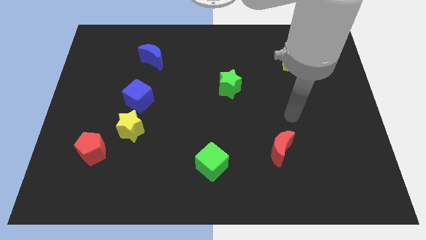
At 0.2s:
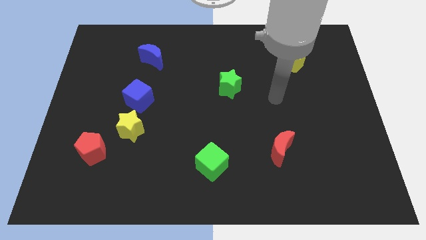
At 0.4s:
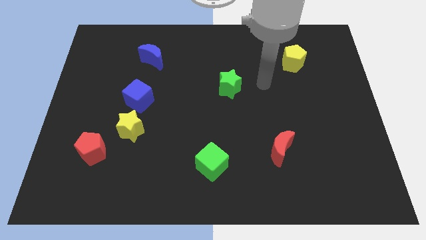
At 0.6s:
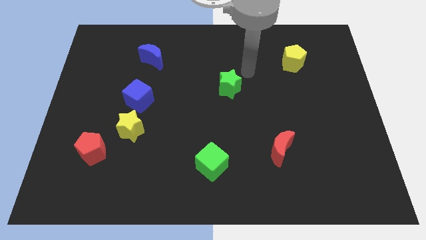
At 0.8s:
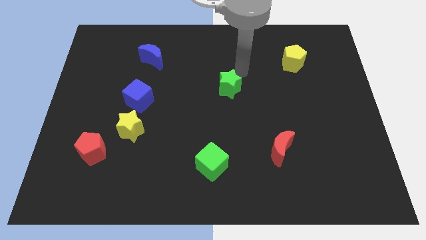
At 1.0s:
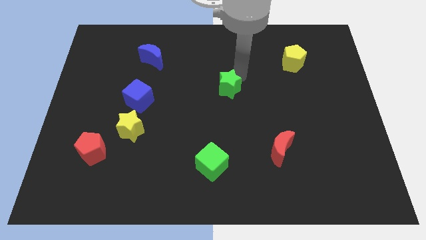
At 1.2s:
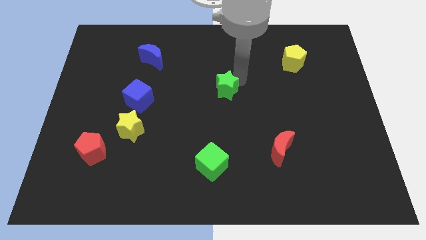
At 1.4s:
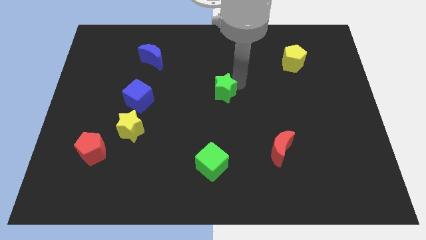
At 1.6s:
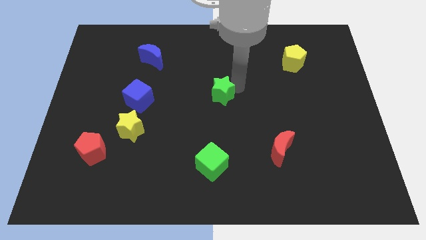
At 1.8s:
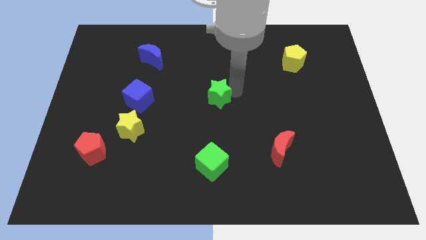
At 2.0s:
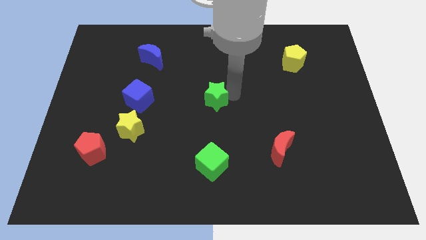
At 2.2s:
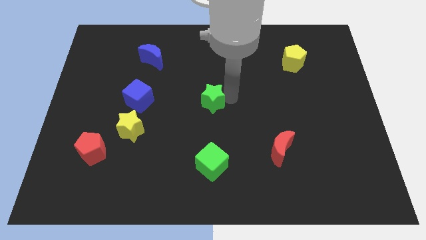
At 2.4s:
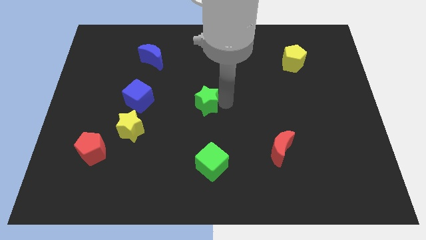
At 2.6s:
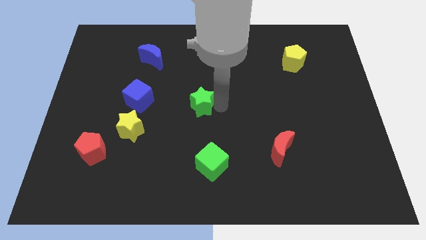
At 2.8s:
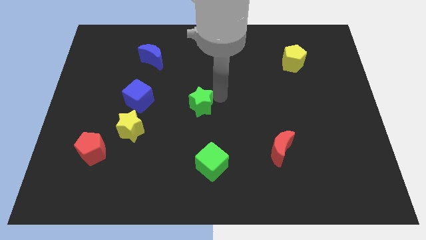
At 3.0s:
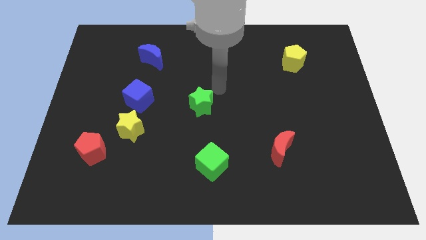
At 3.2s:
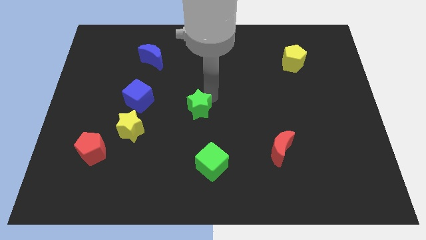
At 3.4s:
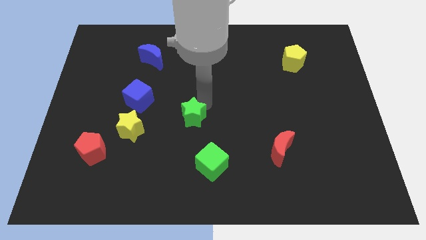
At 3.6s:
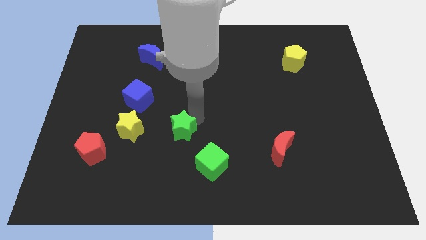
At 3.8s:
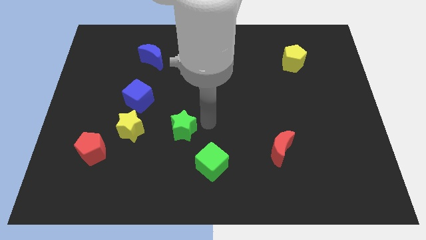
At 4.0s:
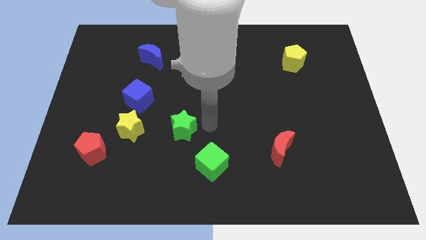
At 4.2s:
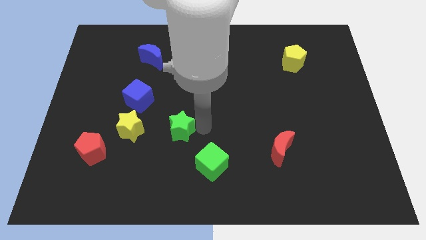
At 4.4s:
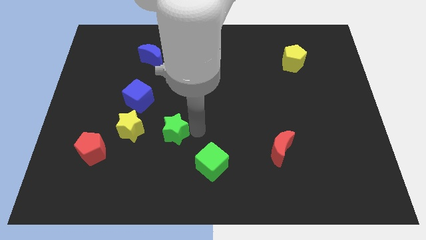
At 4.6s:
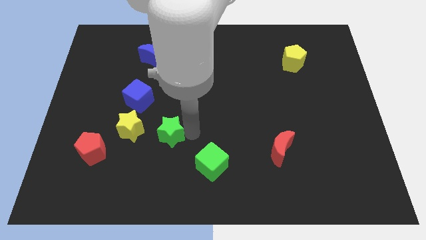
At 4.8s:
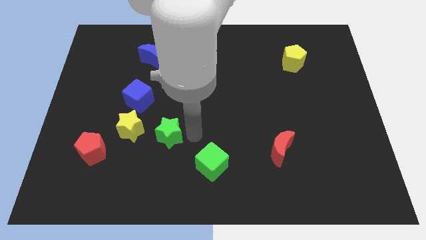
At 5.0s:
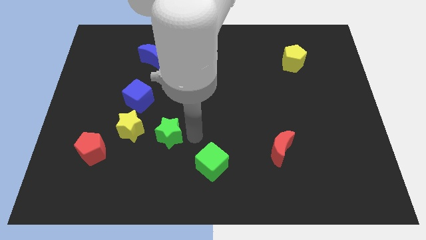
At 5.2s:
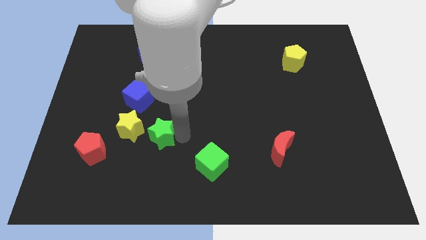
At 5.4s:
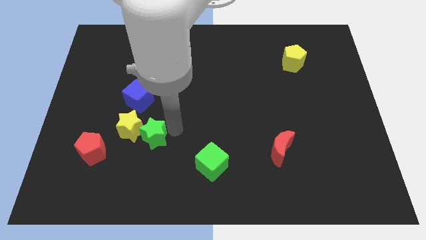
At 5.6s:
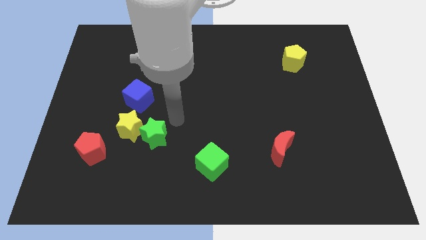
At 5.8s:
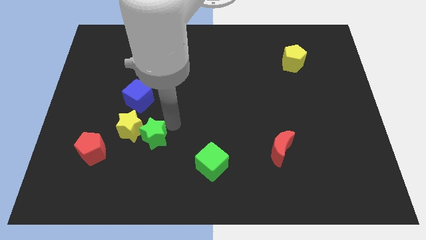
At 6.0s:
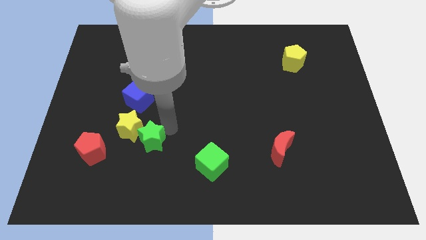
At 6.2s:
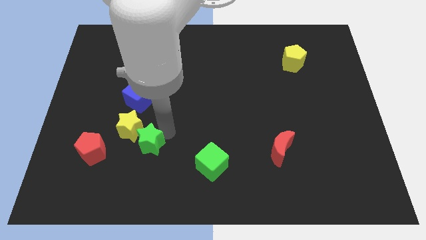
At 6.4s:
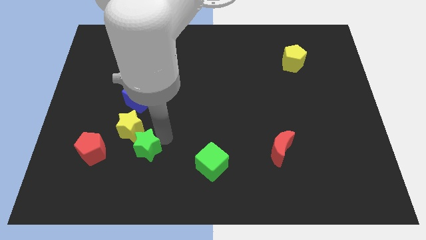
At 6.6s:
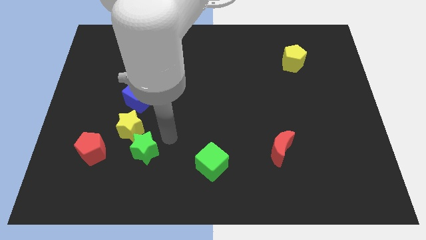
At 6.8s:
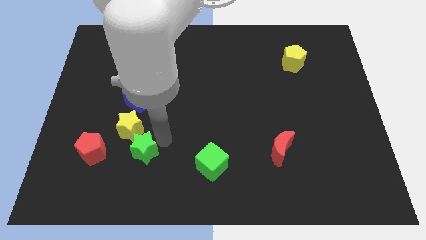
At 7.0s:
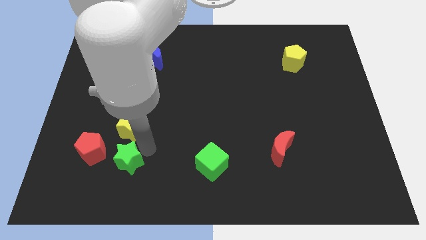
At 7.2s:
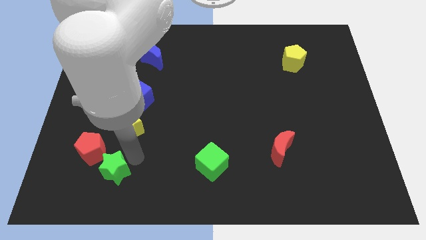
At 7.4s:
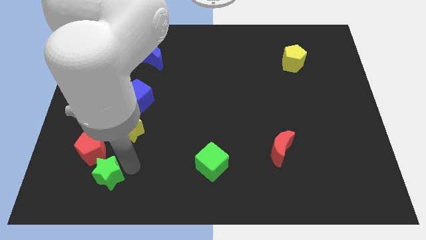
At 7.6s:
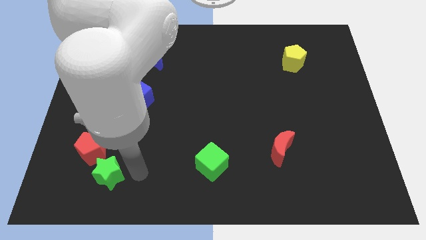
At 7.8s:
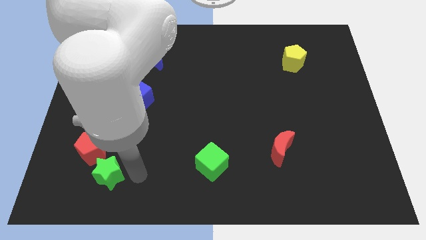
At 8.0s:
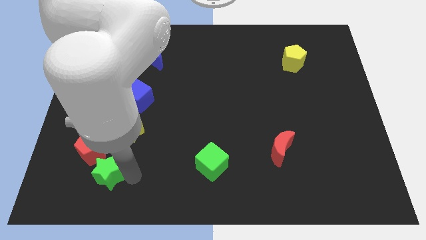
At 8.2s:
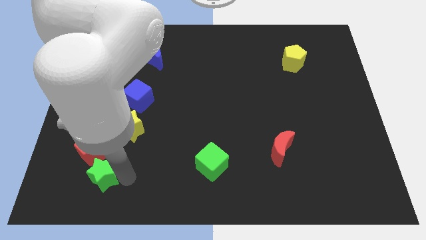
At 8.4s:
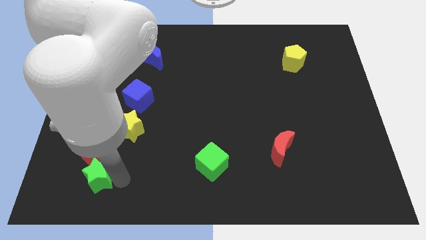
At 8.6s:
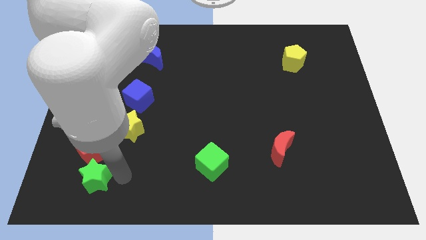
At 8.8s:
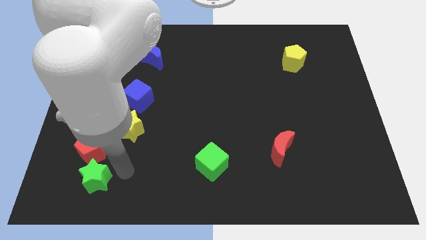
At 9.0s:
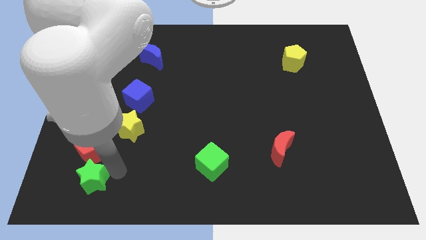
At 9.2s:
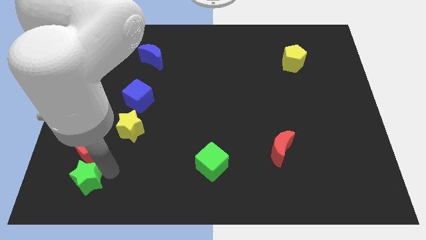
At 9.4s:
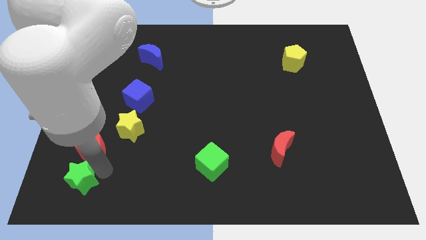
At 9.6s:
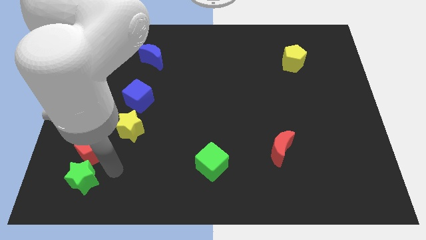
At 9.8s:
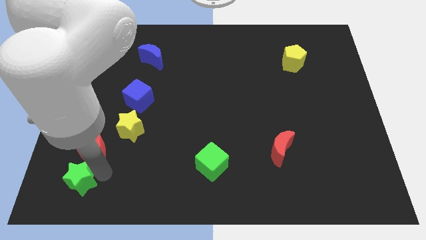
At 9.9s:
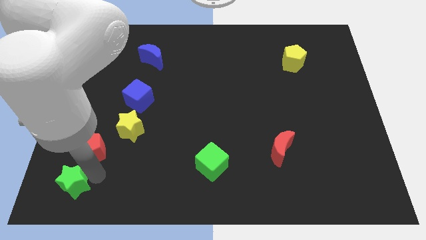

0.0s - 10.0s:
move the green star to the bottom left of the board

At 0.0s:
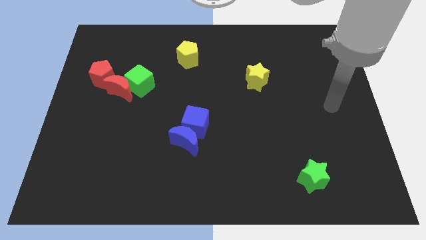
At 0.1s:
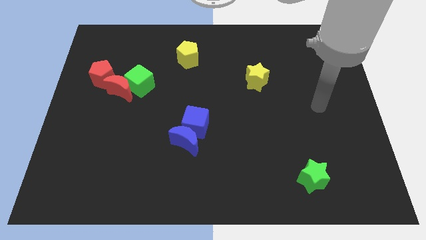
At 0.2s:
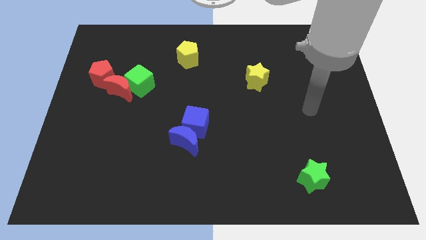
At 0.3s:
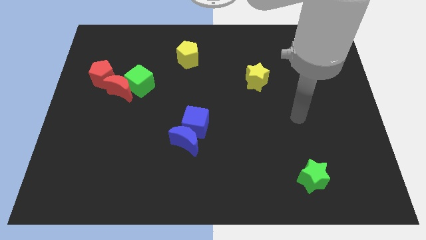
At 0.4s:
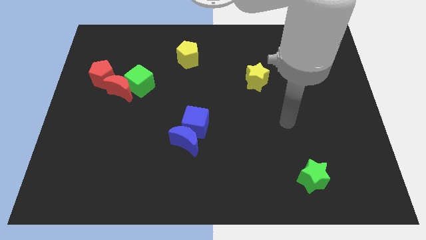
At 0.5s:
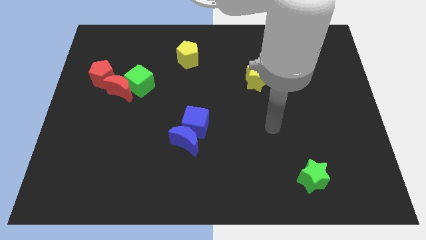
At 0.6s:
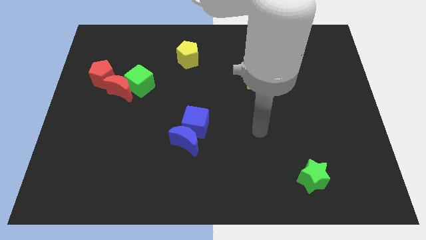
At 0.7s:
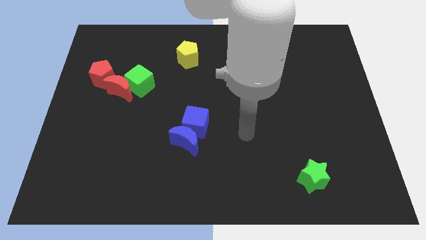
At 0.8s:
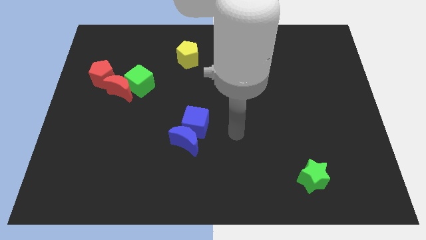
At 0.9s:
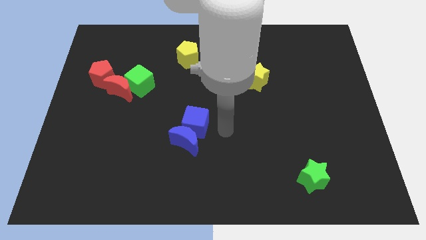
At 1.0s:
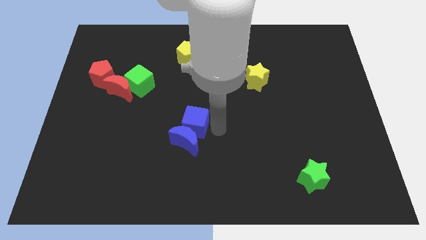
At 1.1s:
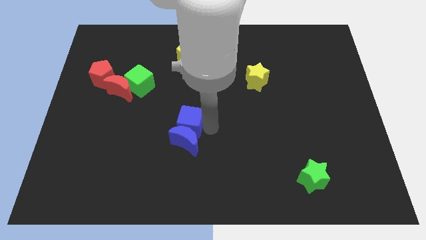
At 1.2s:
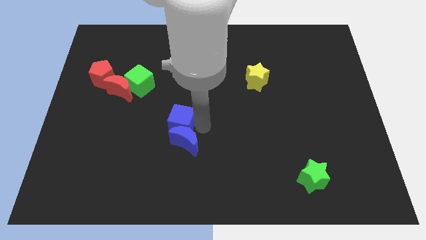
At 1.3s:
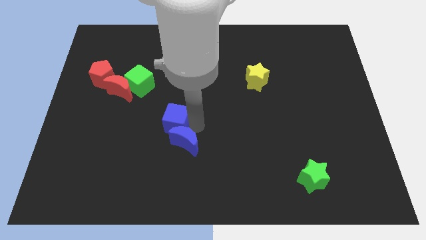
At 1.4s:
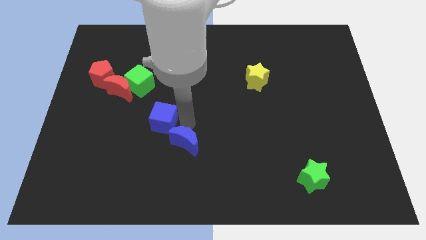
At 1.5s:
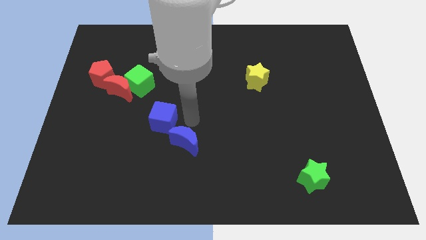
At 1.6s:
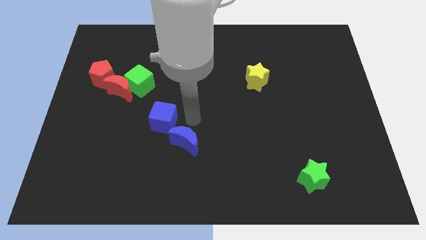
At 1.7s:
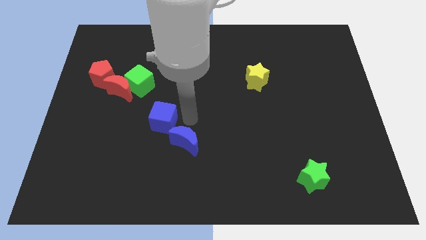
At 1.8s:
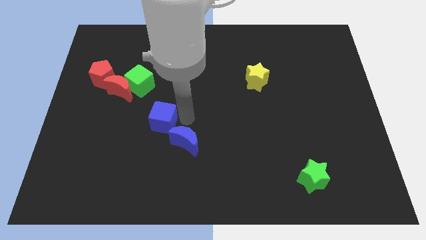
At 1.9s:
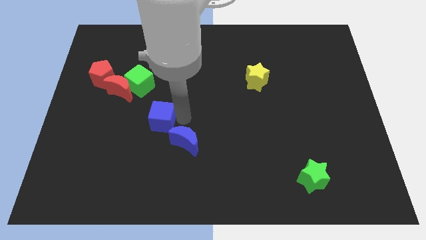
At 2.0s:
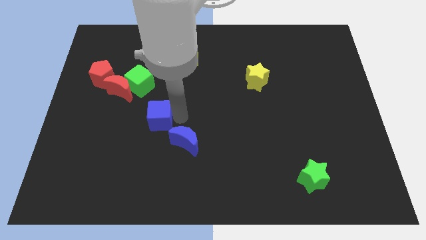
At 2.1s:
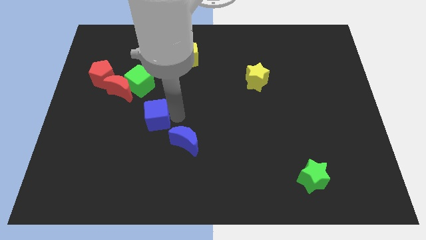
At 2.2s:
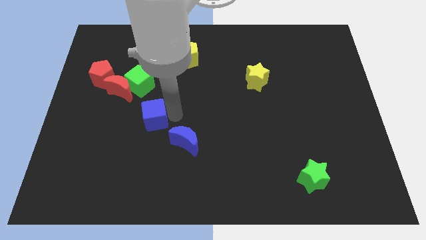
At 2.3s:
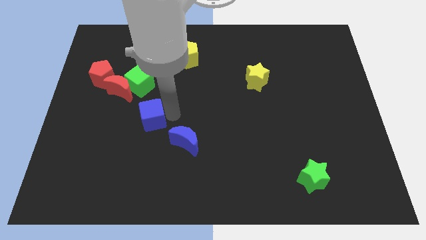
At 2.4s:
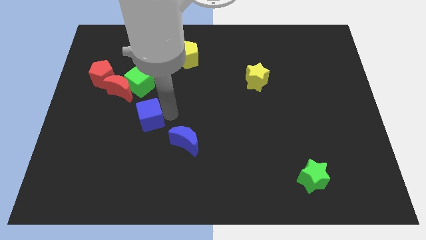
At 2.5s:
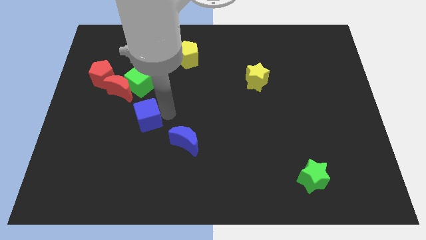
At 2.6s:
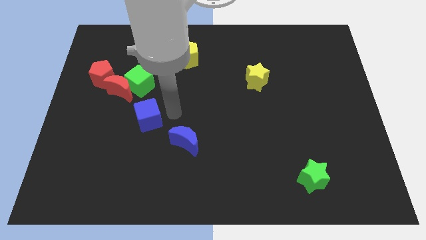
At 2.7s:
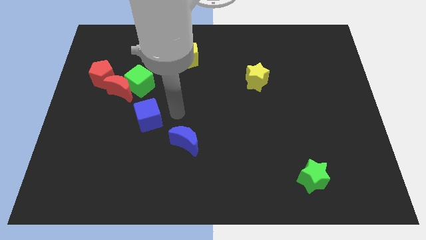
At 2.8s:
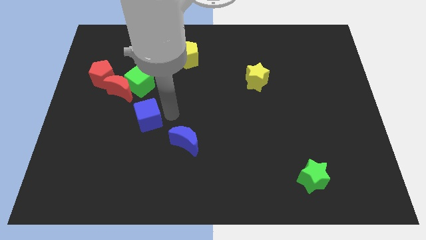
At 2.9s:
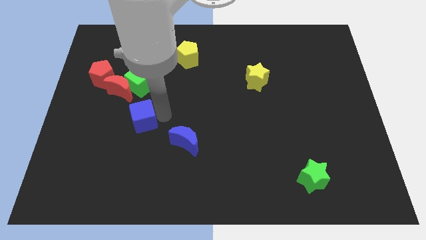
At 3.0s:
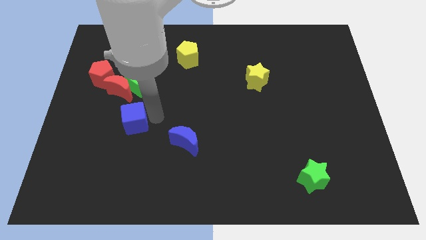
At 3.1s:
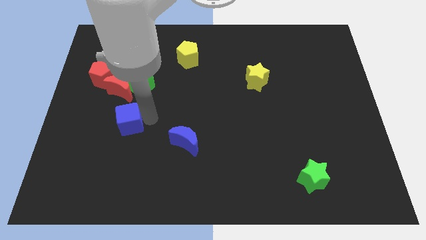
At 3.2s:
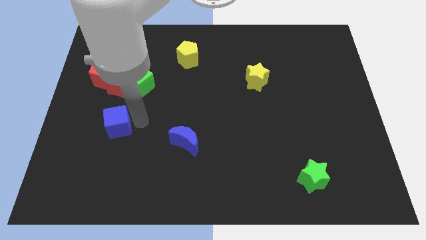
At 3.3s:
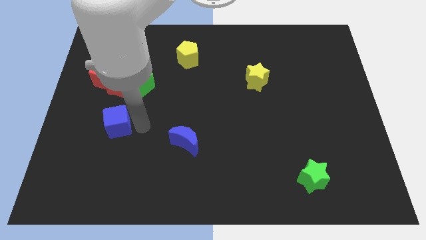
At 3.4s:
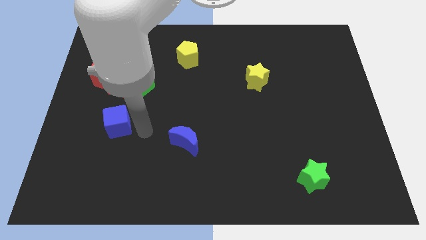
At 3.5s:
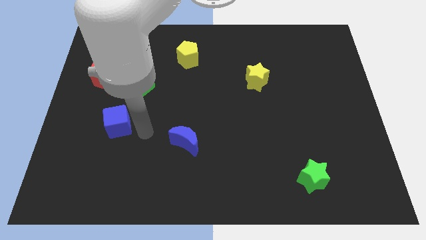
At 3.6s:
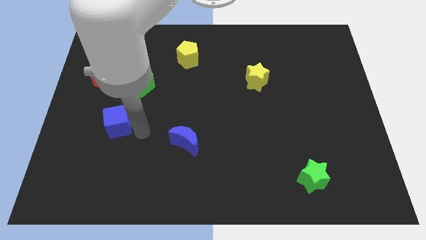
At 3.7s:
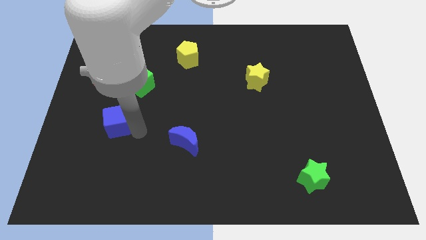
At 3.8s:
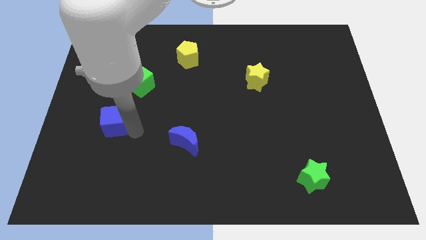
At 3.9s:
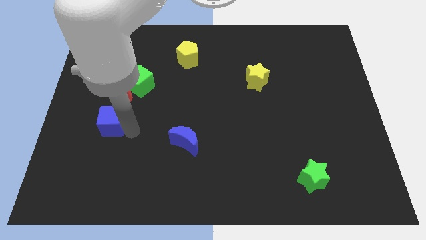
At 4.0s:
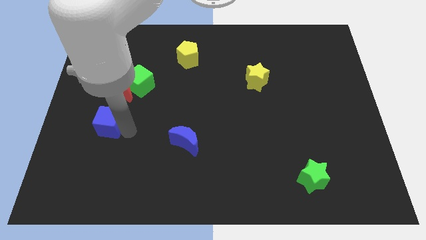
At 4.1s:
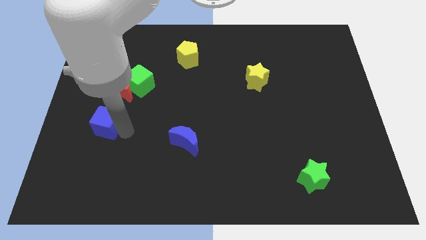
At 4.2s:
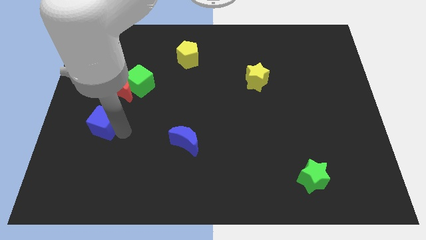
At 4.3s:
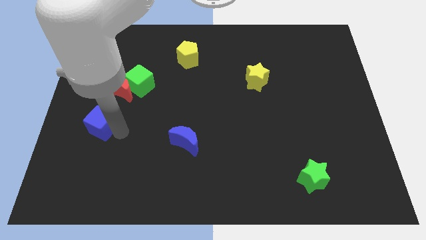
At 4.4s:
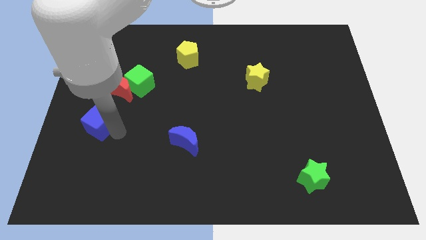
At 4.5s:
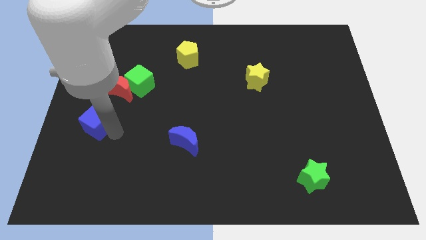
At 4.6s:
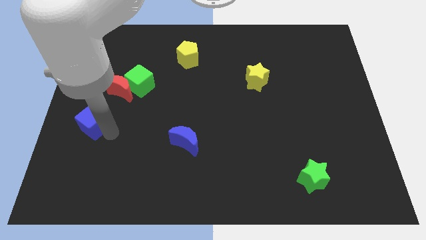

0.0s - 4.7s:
put the blue cube to the left side of the board
